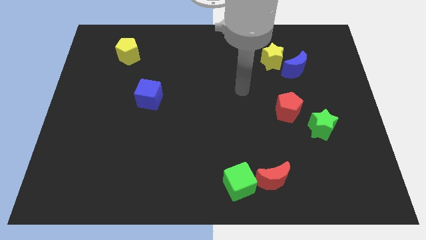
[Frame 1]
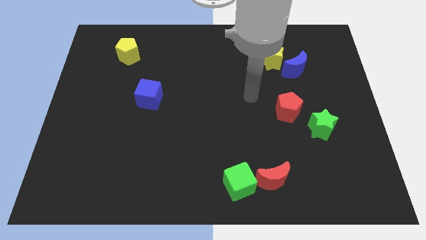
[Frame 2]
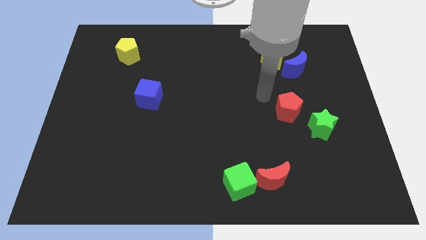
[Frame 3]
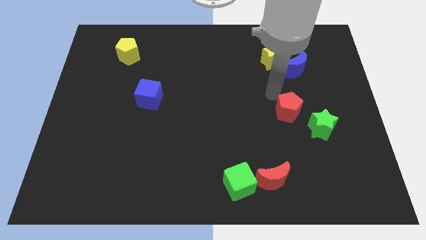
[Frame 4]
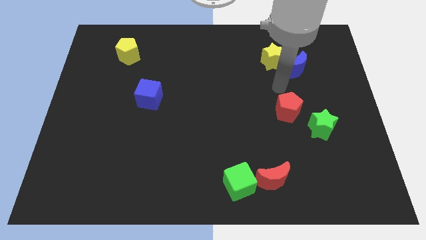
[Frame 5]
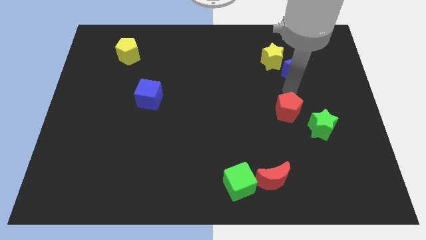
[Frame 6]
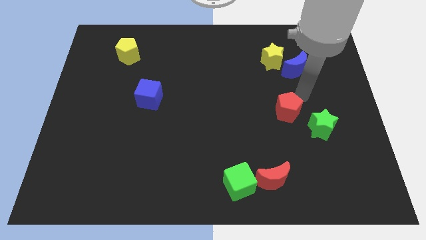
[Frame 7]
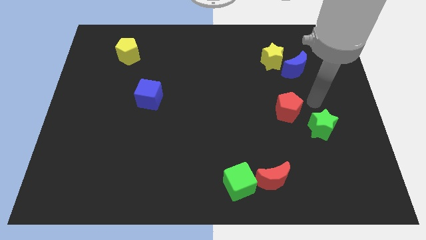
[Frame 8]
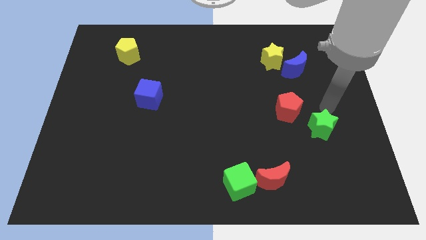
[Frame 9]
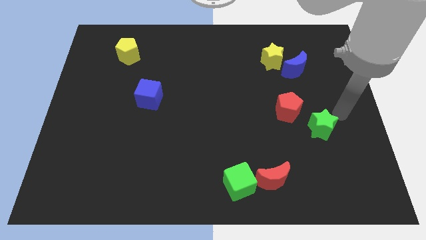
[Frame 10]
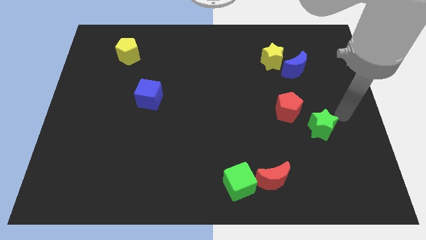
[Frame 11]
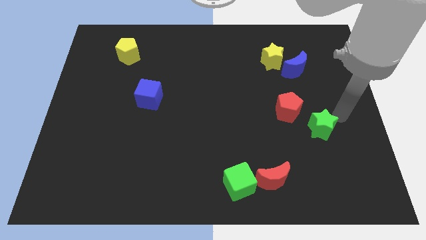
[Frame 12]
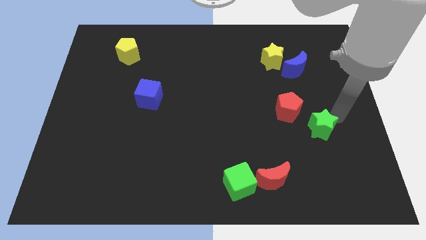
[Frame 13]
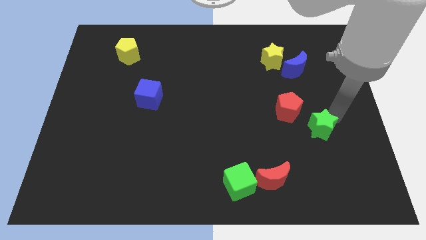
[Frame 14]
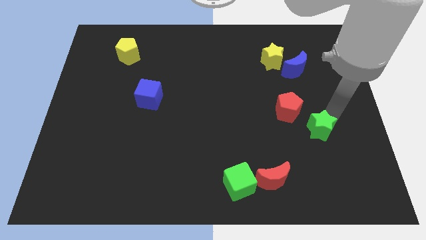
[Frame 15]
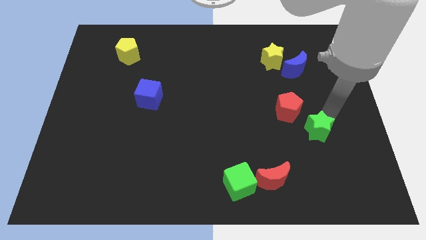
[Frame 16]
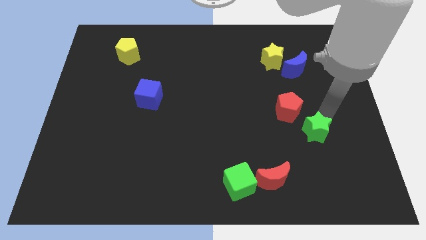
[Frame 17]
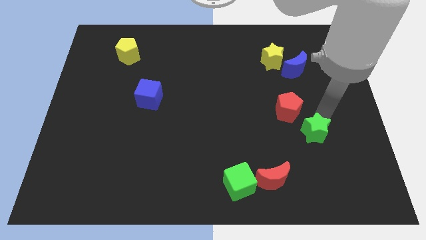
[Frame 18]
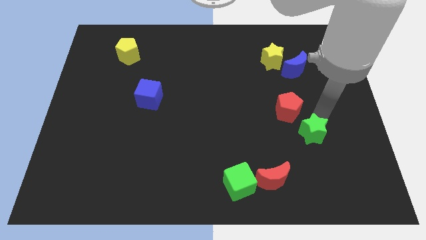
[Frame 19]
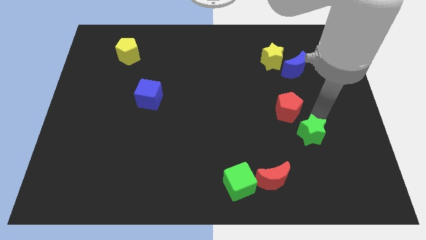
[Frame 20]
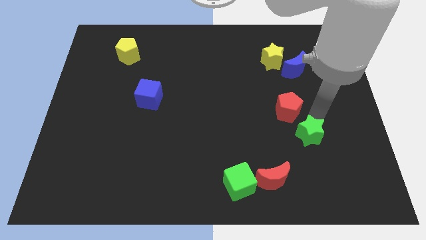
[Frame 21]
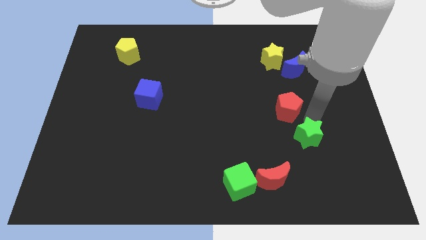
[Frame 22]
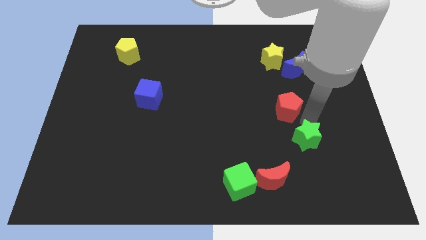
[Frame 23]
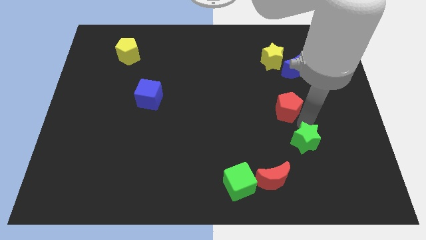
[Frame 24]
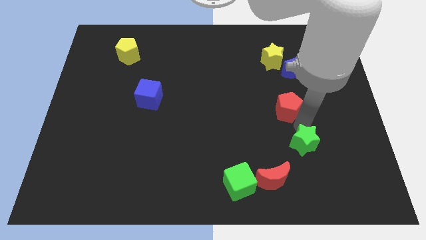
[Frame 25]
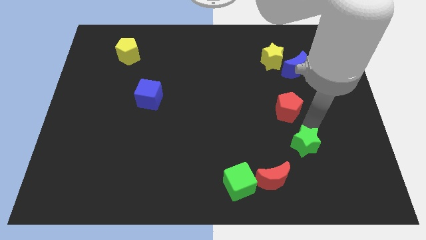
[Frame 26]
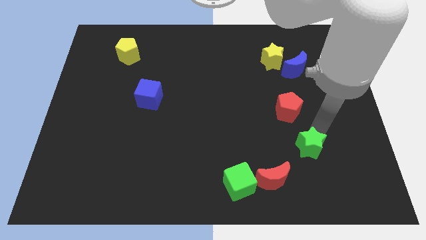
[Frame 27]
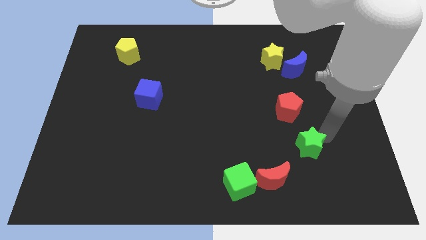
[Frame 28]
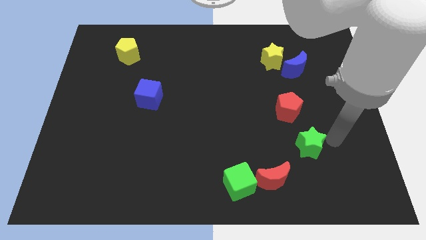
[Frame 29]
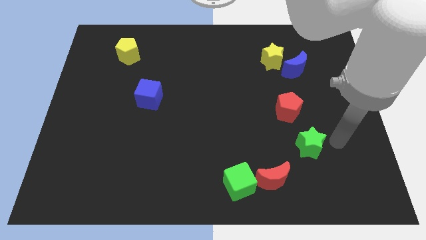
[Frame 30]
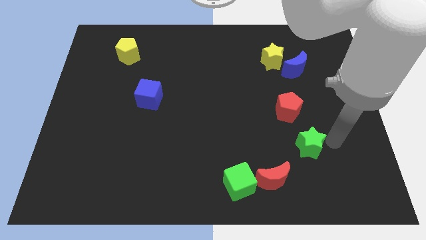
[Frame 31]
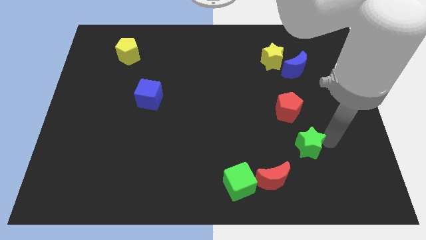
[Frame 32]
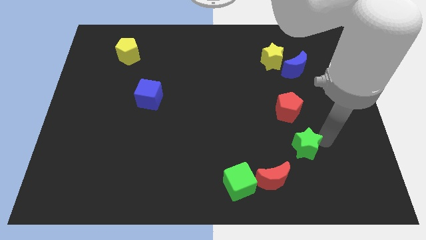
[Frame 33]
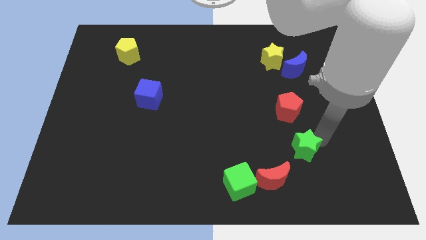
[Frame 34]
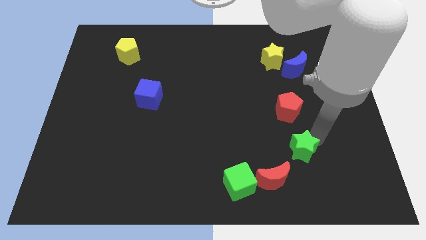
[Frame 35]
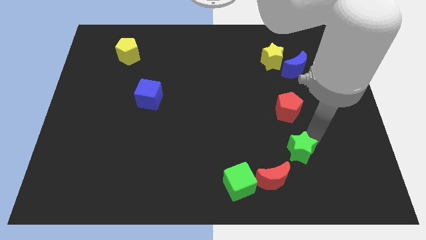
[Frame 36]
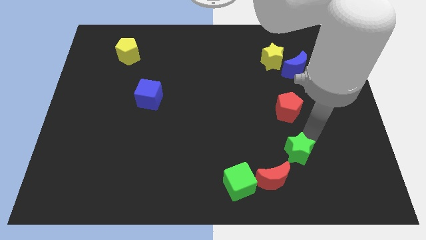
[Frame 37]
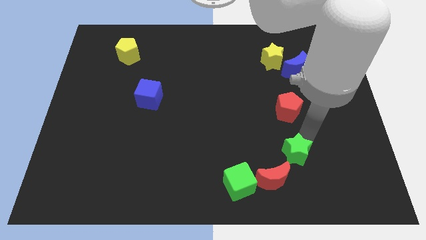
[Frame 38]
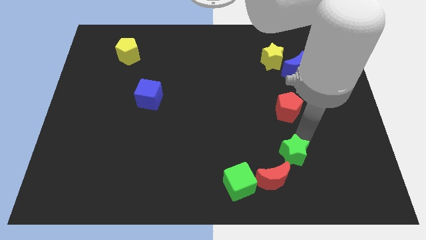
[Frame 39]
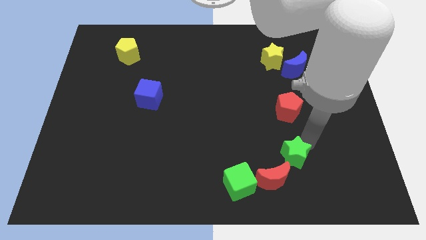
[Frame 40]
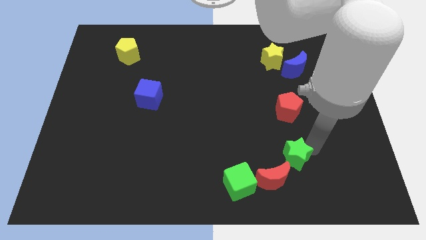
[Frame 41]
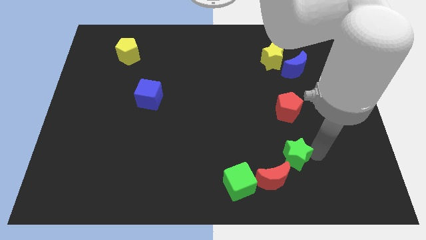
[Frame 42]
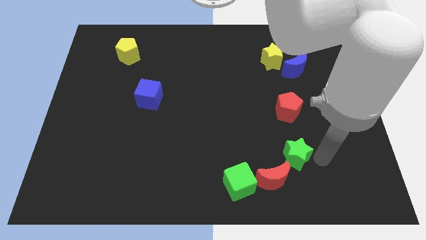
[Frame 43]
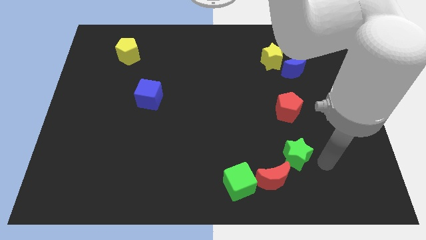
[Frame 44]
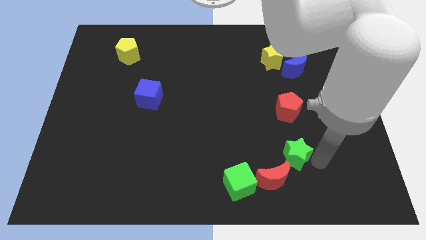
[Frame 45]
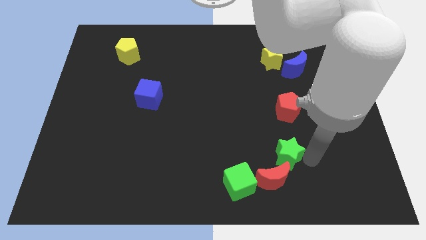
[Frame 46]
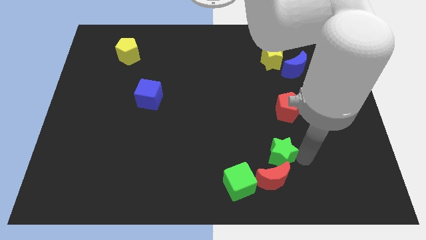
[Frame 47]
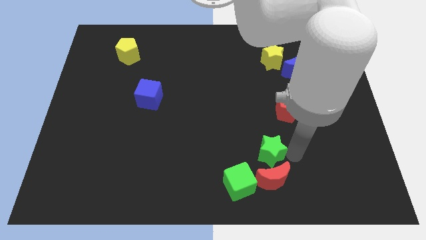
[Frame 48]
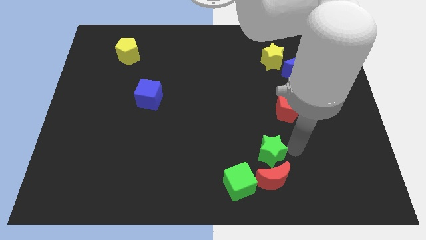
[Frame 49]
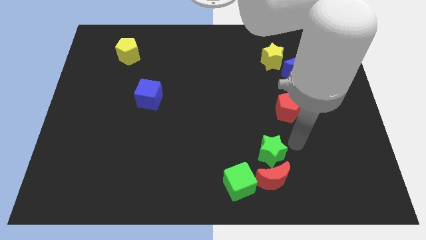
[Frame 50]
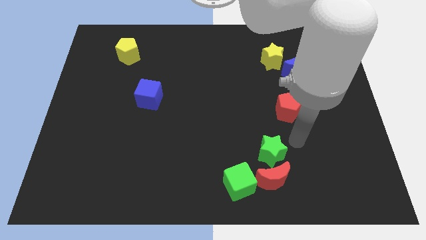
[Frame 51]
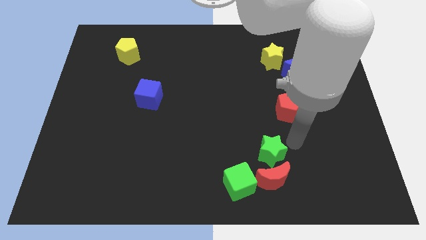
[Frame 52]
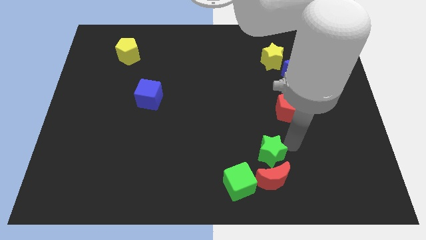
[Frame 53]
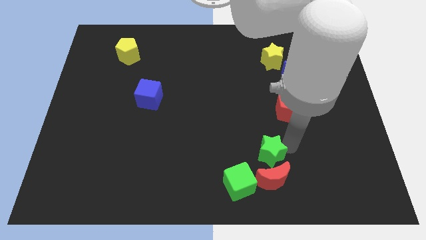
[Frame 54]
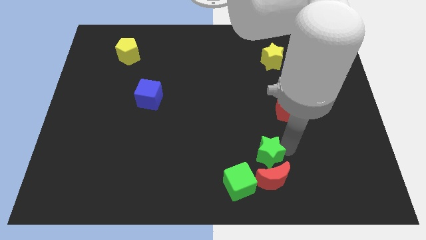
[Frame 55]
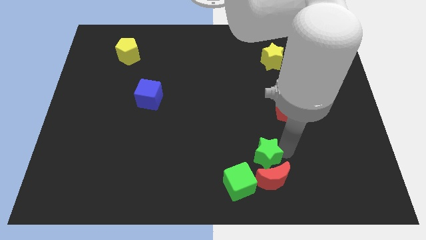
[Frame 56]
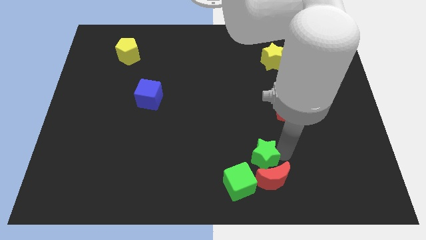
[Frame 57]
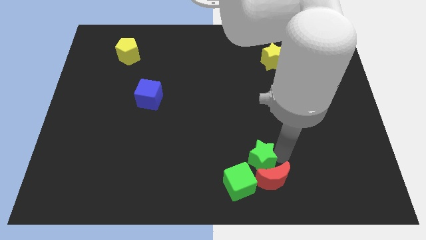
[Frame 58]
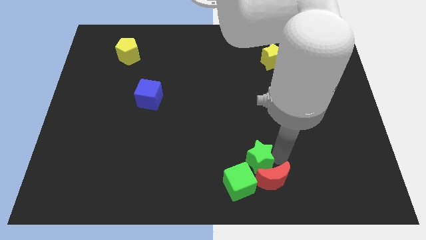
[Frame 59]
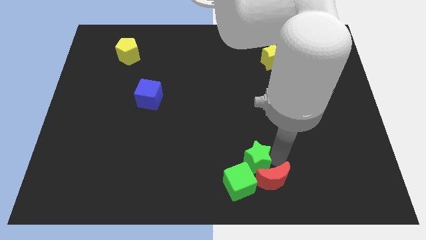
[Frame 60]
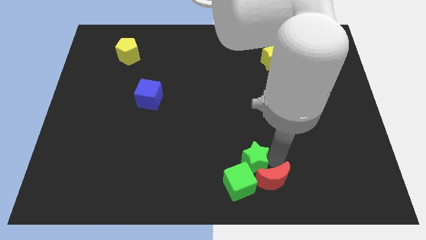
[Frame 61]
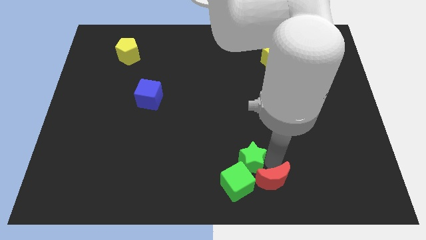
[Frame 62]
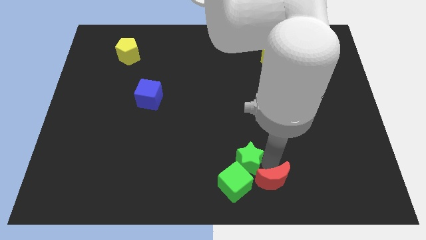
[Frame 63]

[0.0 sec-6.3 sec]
put the green star to the bottom
